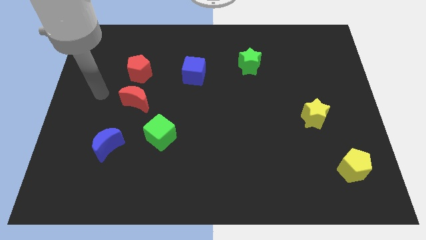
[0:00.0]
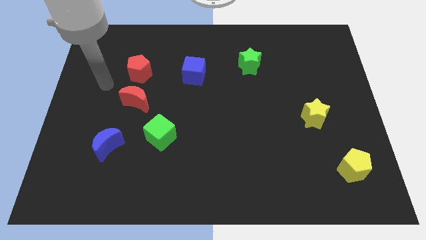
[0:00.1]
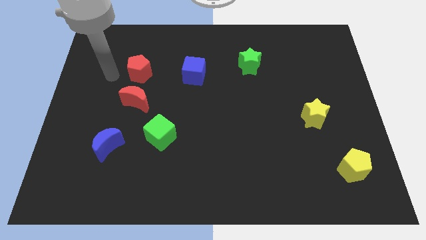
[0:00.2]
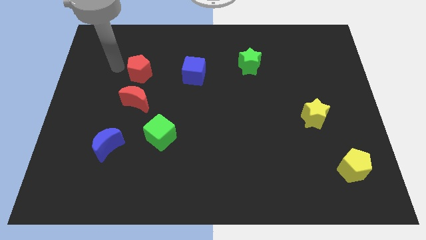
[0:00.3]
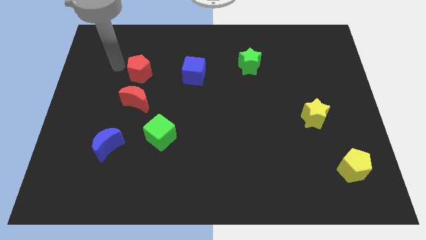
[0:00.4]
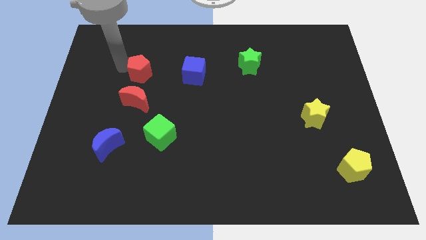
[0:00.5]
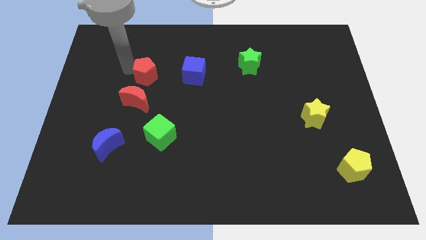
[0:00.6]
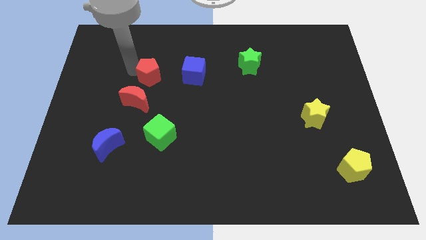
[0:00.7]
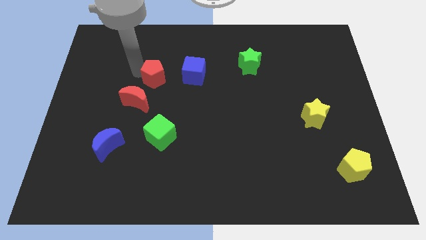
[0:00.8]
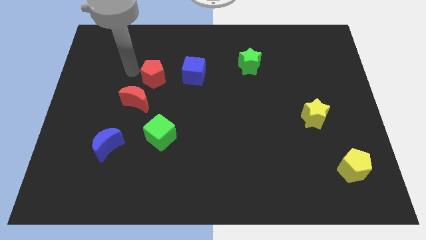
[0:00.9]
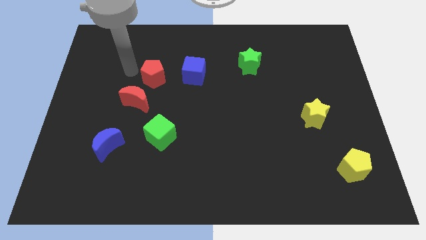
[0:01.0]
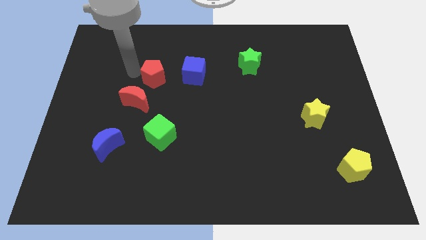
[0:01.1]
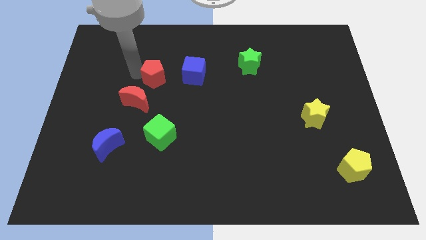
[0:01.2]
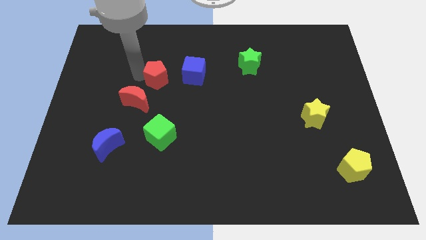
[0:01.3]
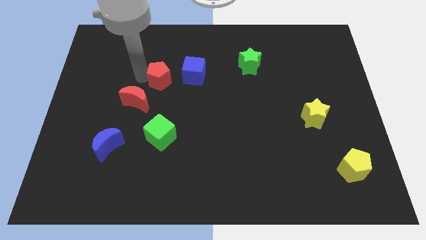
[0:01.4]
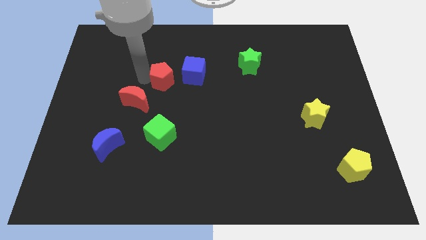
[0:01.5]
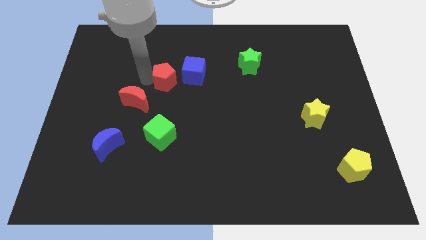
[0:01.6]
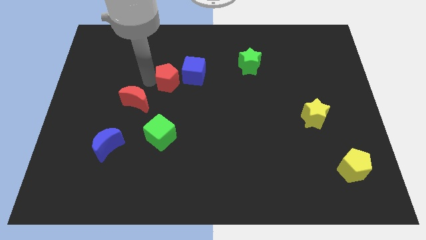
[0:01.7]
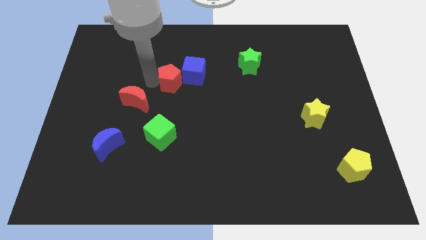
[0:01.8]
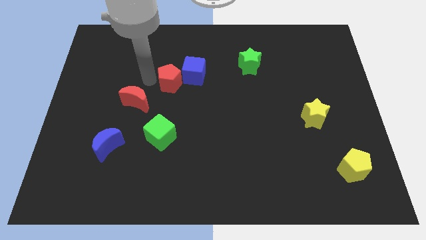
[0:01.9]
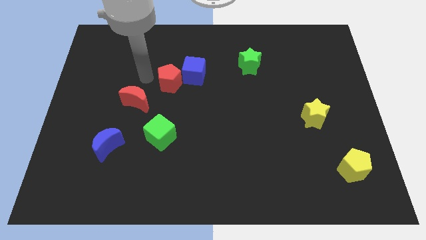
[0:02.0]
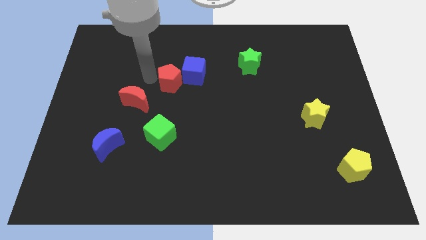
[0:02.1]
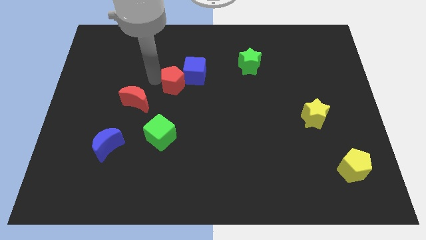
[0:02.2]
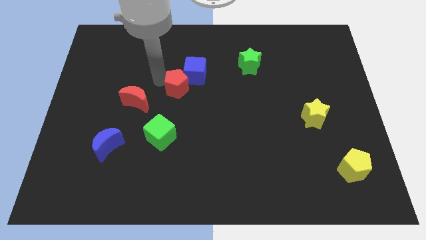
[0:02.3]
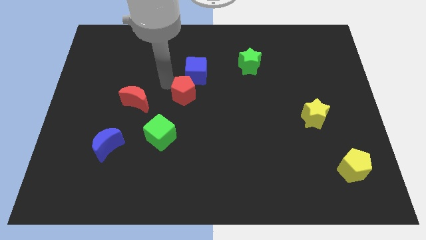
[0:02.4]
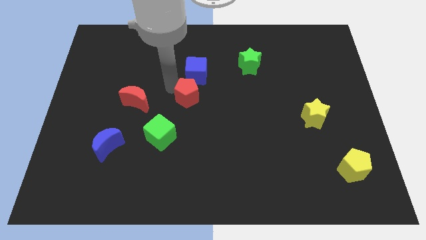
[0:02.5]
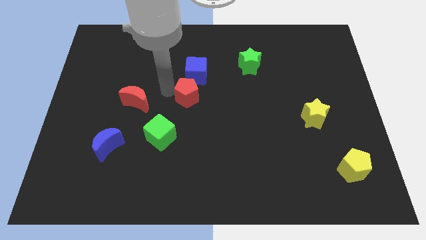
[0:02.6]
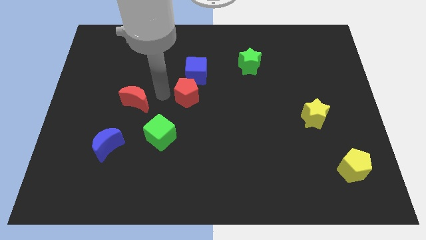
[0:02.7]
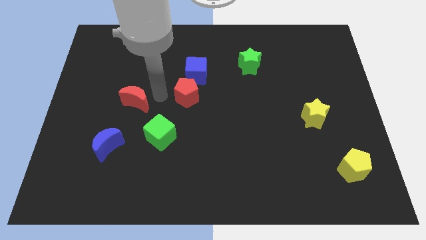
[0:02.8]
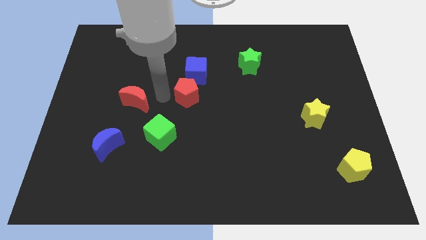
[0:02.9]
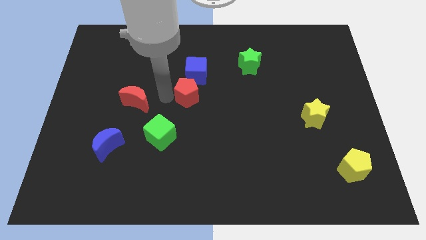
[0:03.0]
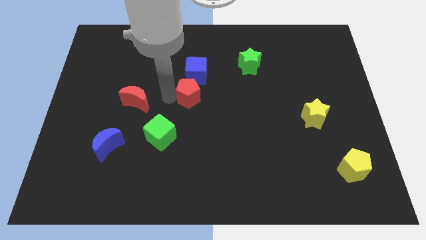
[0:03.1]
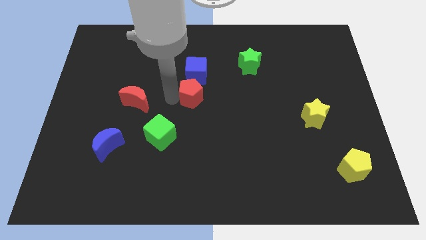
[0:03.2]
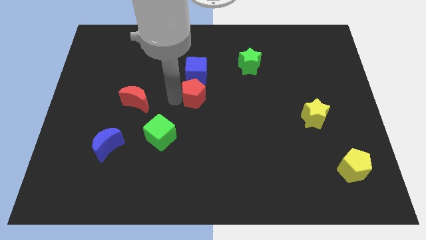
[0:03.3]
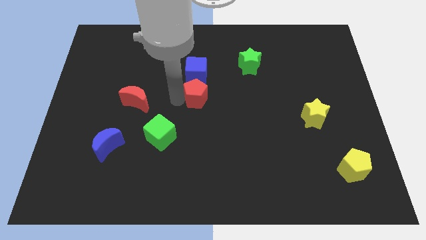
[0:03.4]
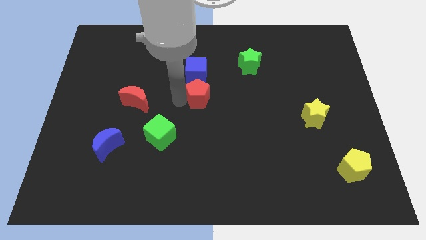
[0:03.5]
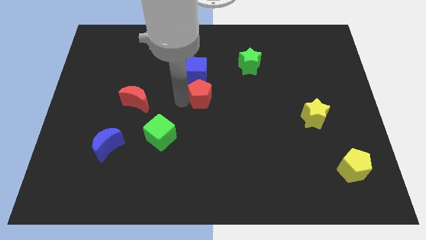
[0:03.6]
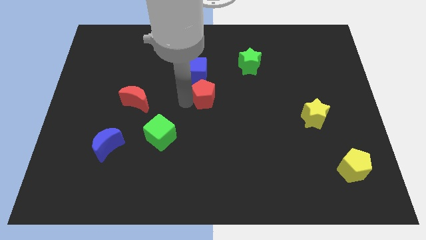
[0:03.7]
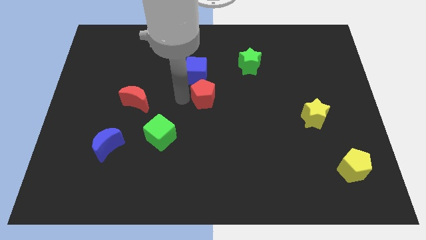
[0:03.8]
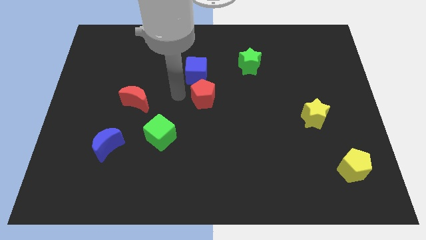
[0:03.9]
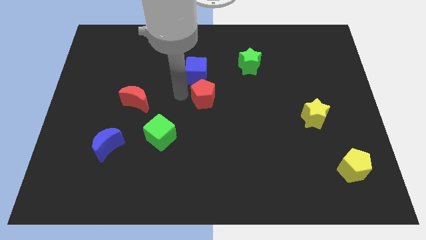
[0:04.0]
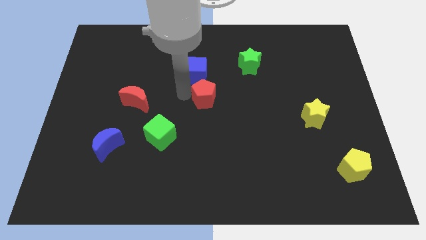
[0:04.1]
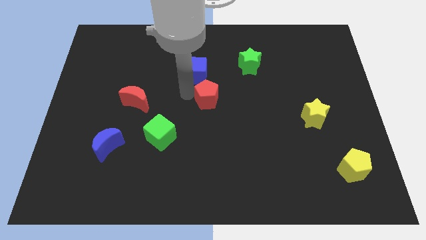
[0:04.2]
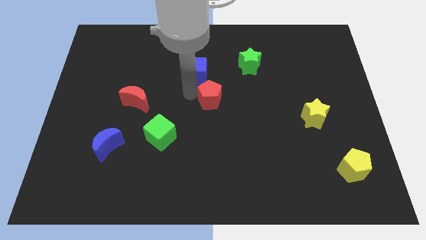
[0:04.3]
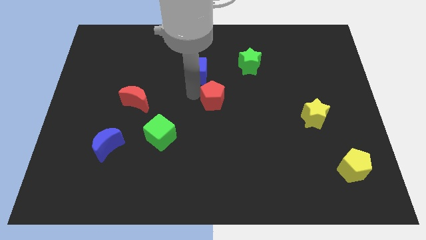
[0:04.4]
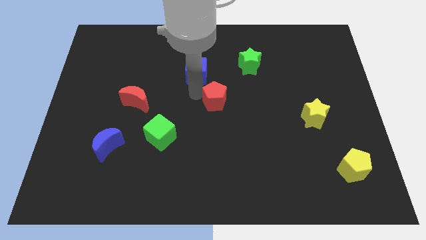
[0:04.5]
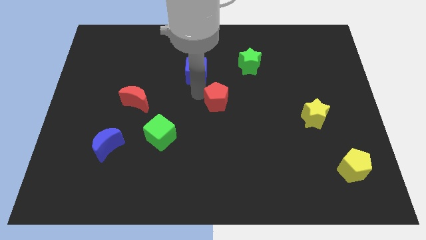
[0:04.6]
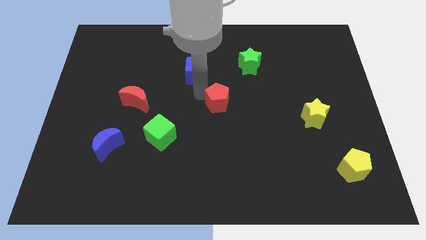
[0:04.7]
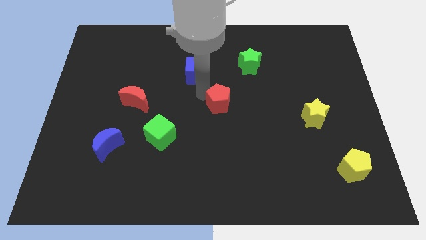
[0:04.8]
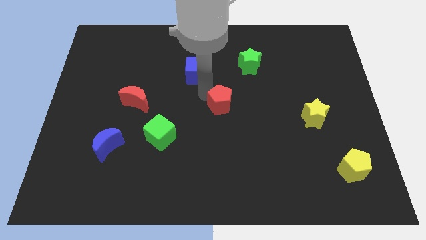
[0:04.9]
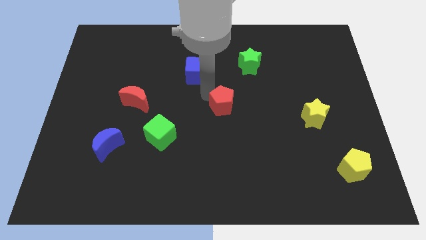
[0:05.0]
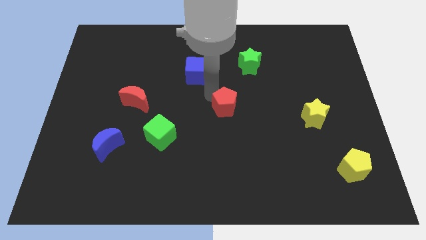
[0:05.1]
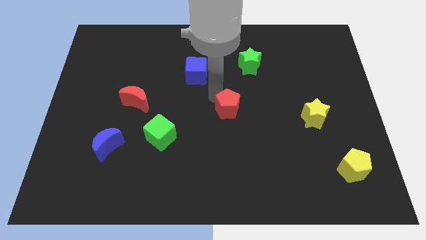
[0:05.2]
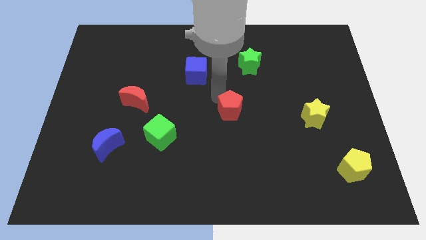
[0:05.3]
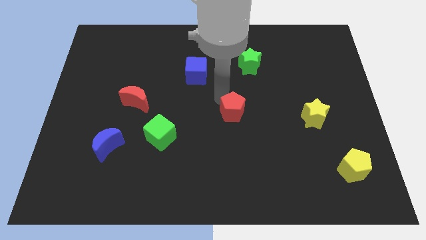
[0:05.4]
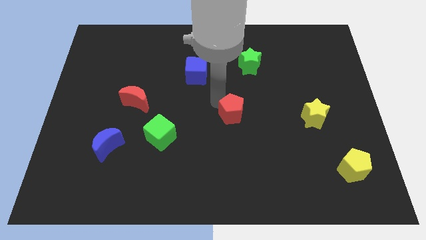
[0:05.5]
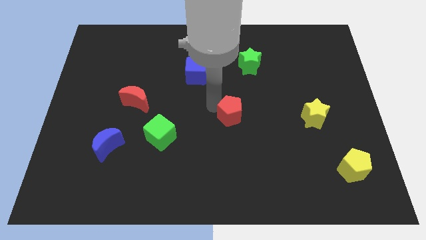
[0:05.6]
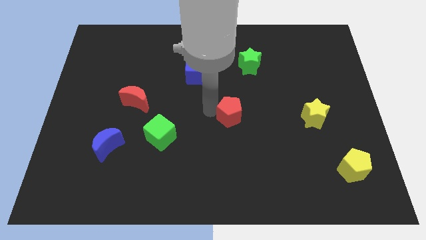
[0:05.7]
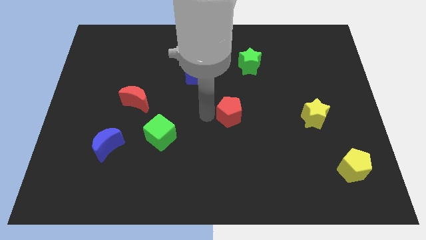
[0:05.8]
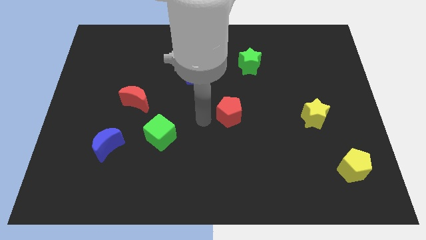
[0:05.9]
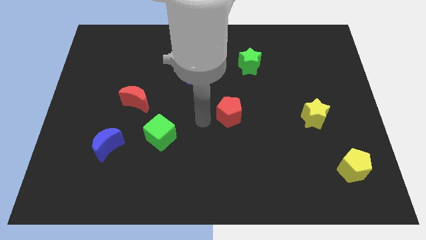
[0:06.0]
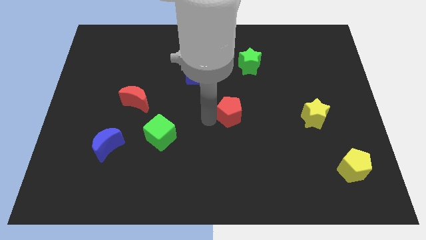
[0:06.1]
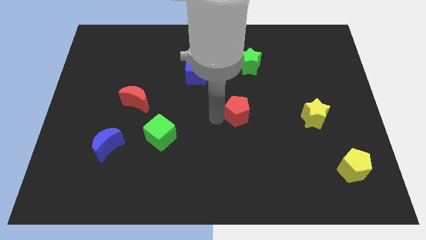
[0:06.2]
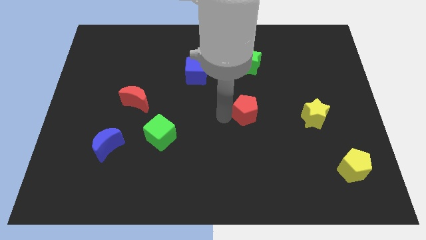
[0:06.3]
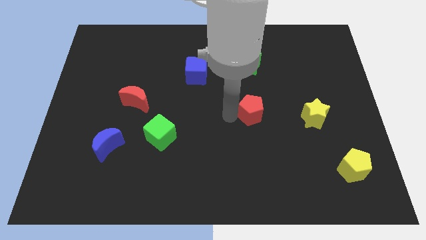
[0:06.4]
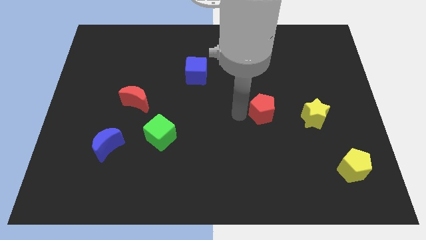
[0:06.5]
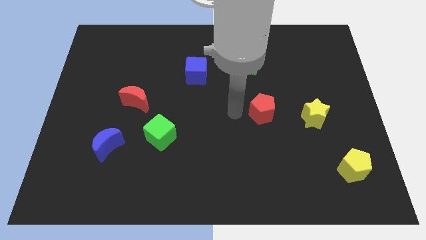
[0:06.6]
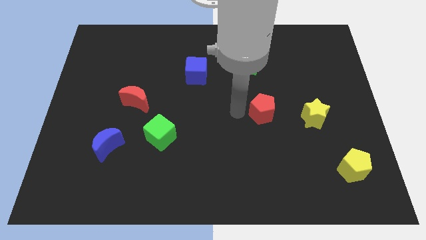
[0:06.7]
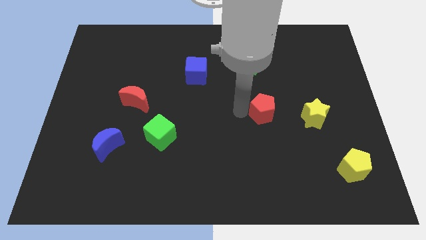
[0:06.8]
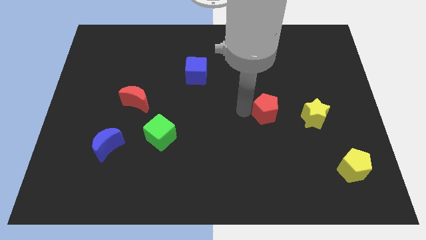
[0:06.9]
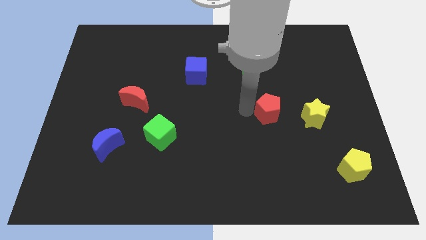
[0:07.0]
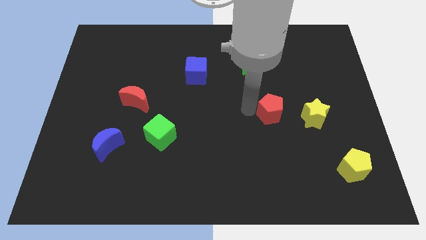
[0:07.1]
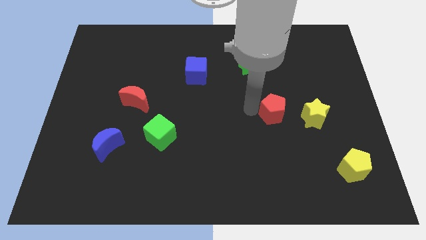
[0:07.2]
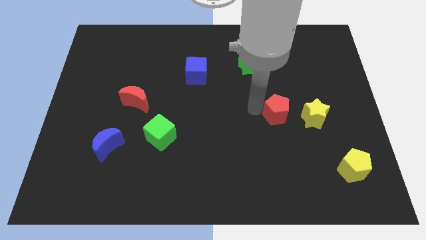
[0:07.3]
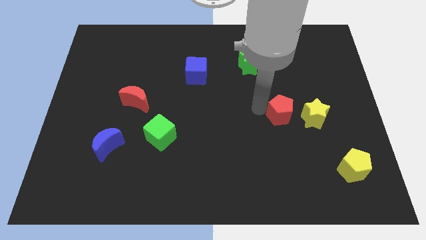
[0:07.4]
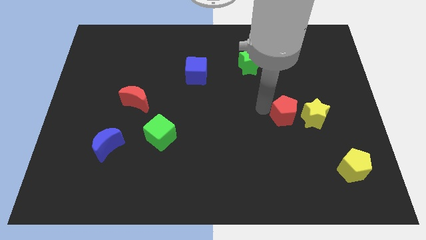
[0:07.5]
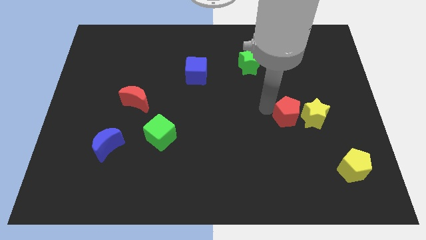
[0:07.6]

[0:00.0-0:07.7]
move the red pentagon next to the yellow star
